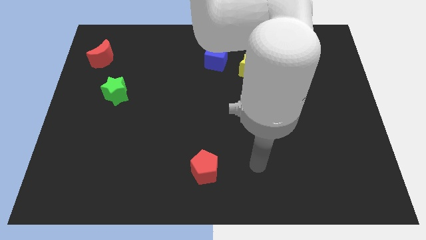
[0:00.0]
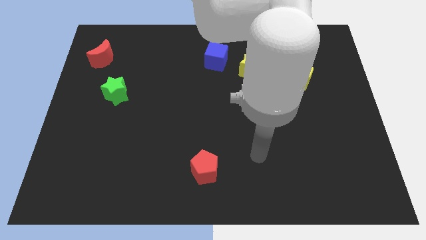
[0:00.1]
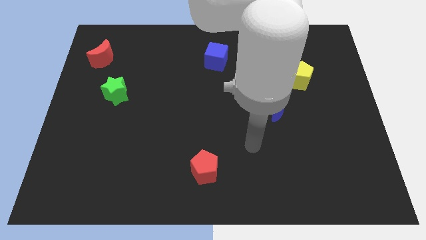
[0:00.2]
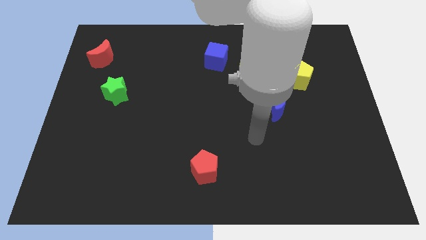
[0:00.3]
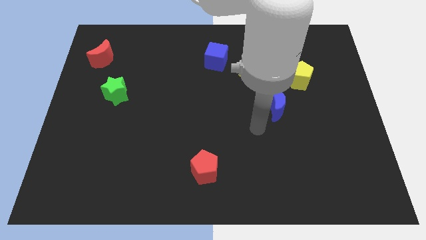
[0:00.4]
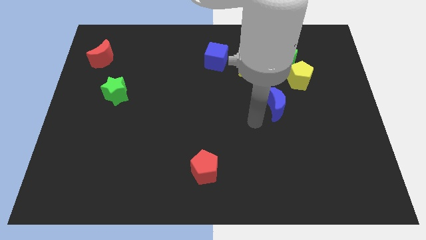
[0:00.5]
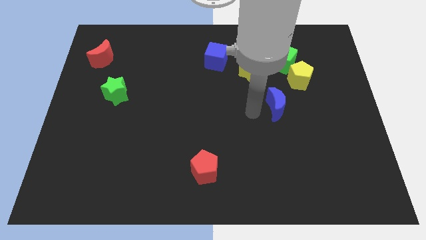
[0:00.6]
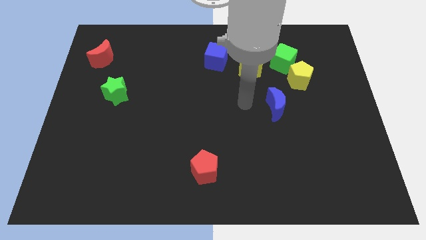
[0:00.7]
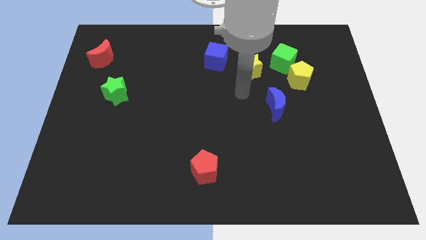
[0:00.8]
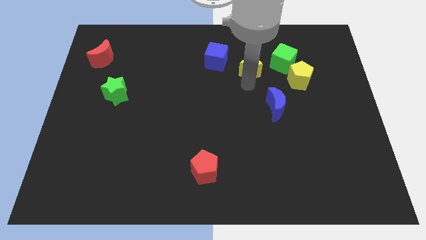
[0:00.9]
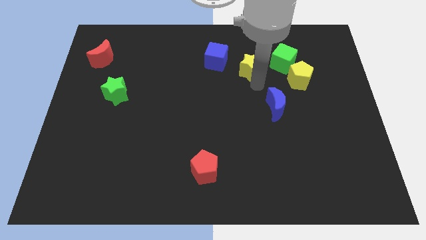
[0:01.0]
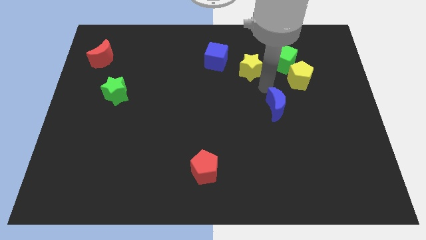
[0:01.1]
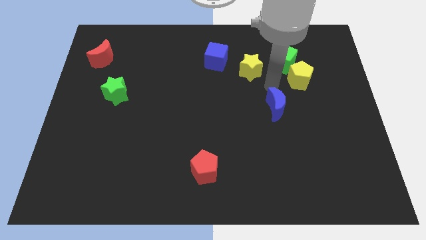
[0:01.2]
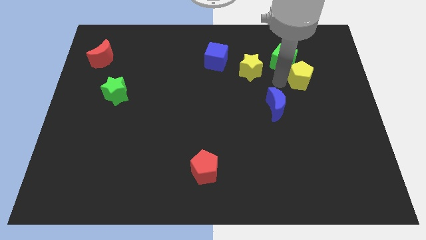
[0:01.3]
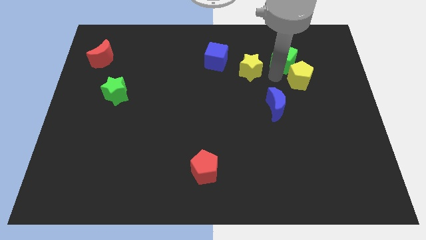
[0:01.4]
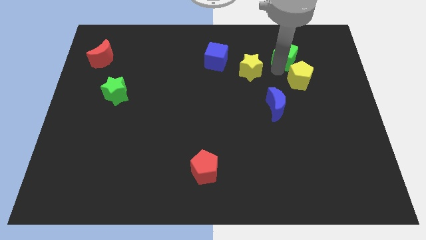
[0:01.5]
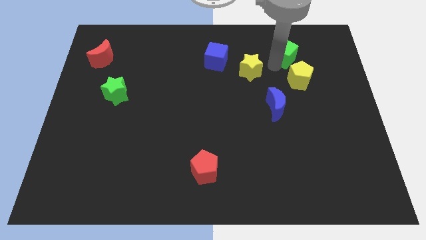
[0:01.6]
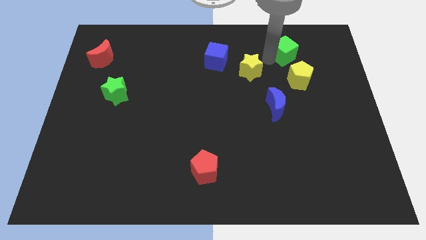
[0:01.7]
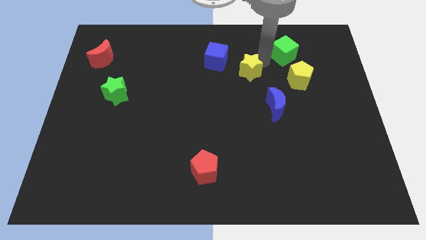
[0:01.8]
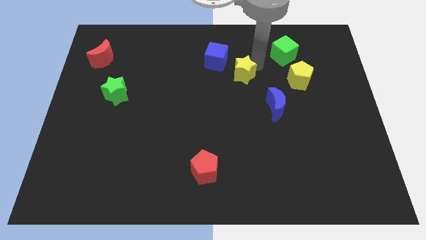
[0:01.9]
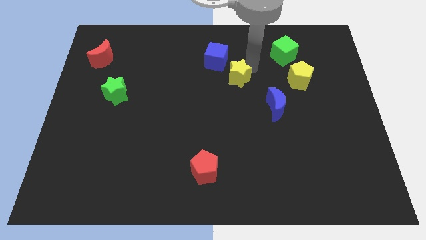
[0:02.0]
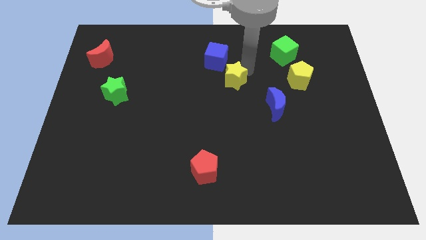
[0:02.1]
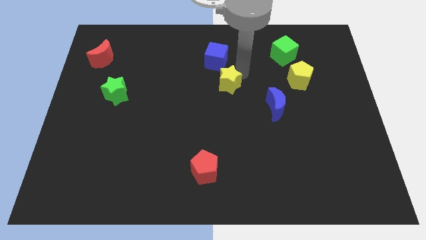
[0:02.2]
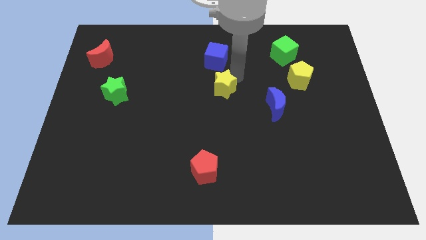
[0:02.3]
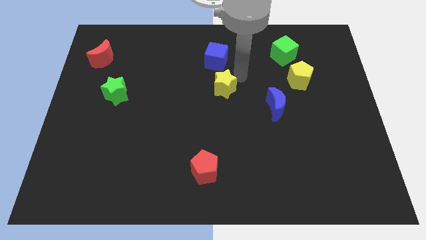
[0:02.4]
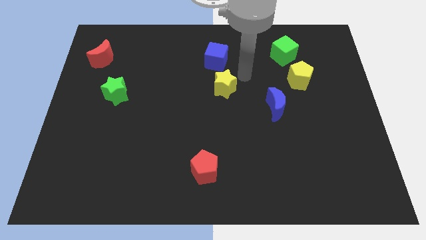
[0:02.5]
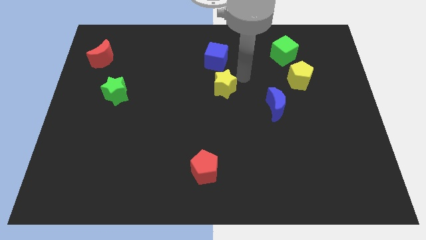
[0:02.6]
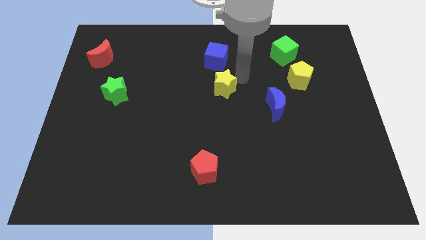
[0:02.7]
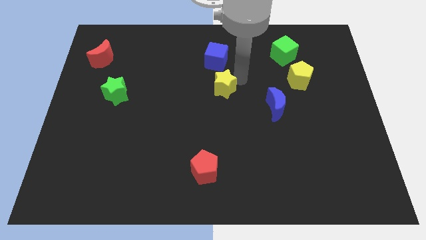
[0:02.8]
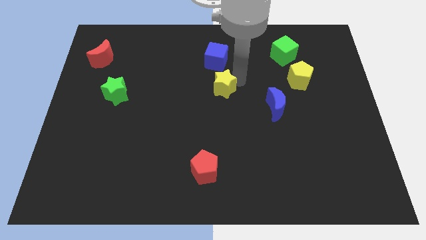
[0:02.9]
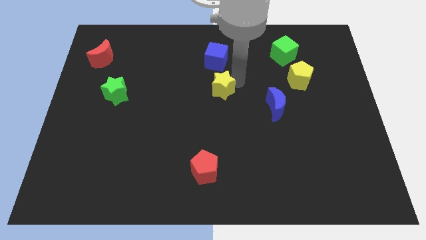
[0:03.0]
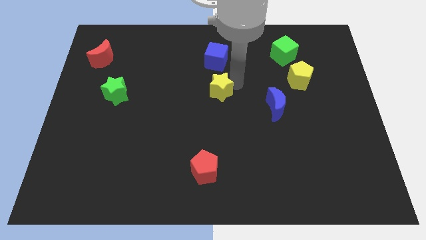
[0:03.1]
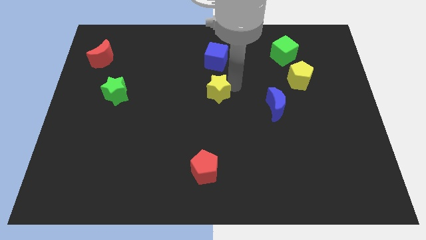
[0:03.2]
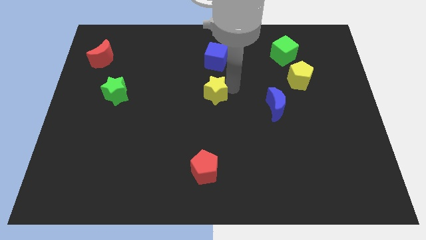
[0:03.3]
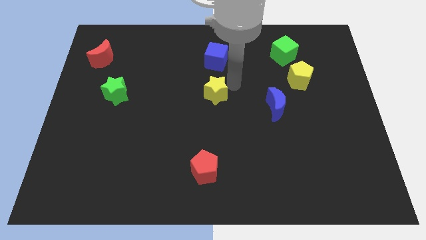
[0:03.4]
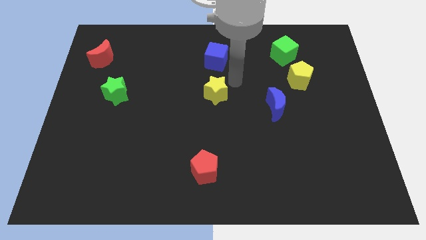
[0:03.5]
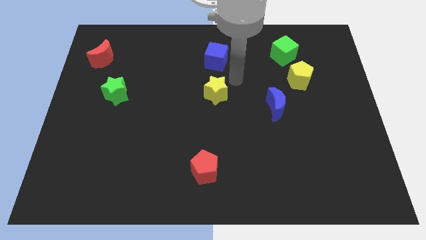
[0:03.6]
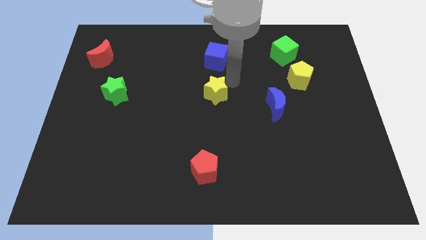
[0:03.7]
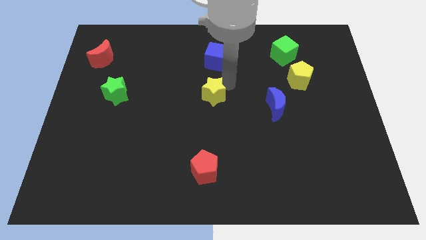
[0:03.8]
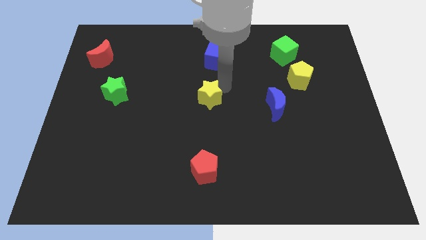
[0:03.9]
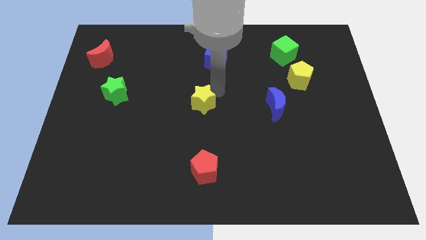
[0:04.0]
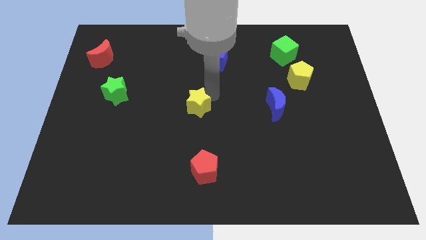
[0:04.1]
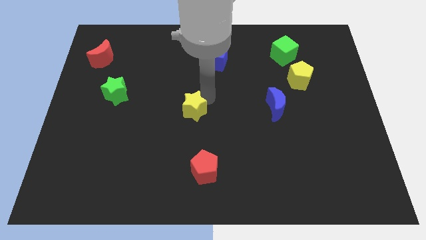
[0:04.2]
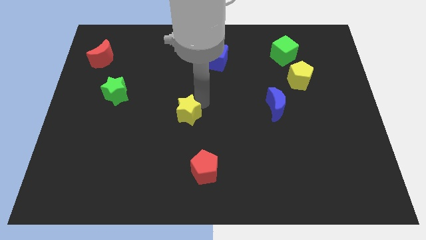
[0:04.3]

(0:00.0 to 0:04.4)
push the yellow star down and then to the left

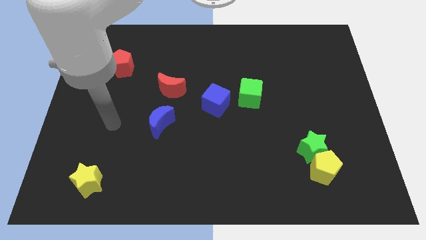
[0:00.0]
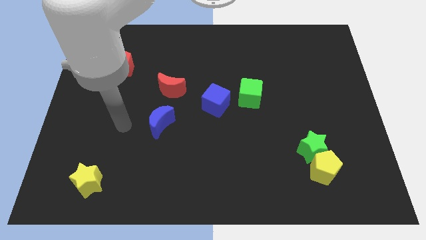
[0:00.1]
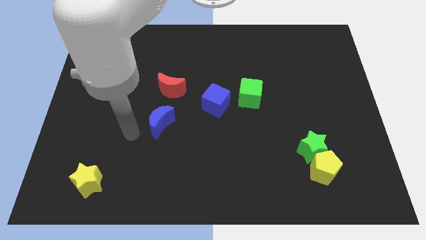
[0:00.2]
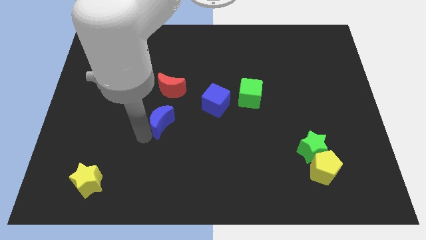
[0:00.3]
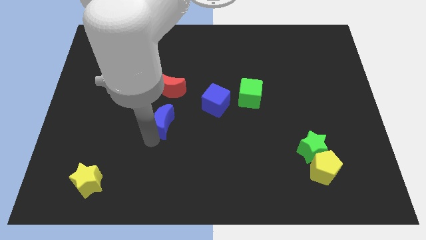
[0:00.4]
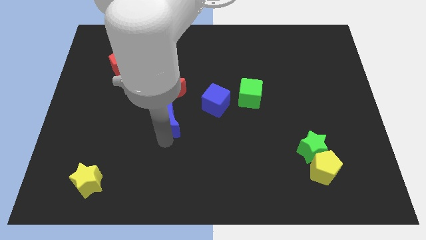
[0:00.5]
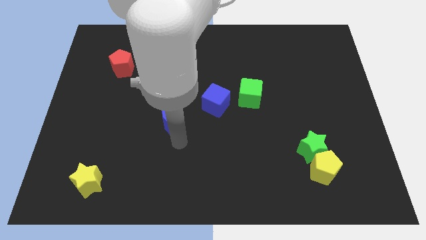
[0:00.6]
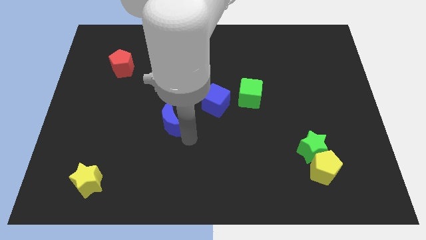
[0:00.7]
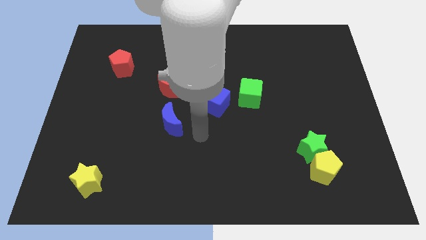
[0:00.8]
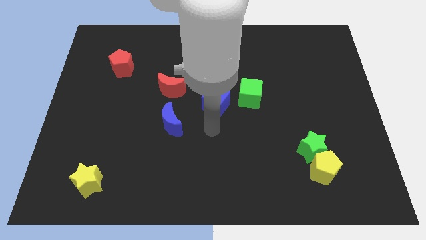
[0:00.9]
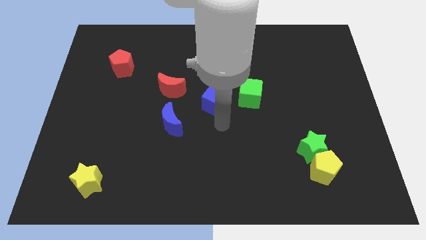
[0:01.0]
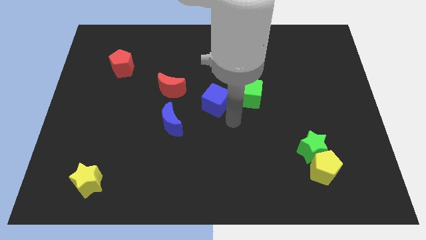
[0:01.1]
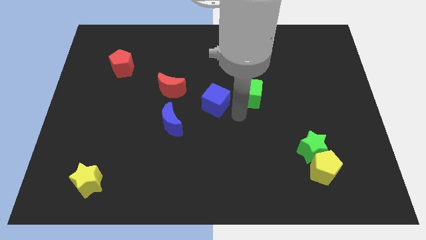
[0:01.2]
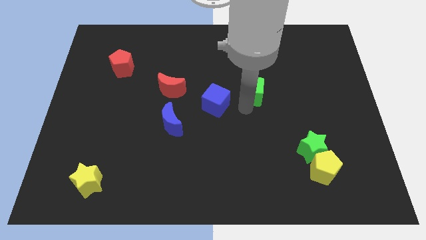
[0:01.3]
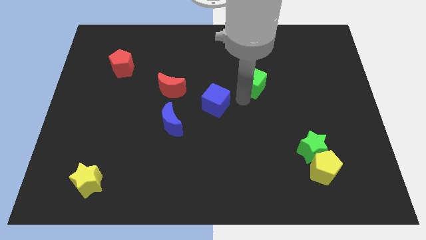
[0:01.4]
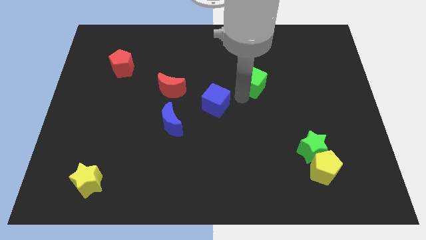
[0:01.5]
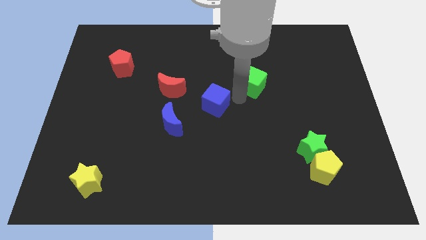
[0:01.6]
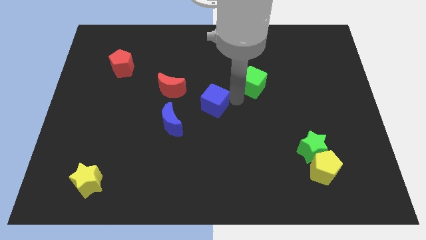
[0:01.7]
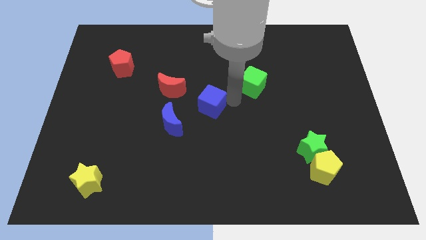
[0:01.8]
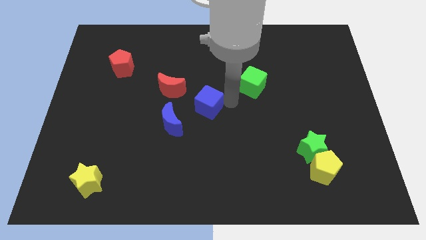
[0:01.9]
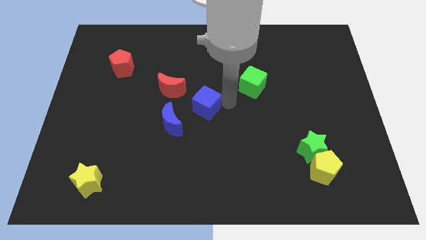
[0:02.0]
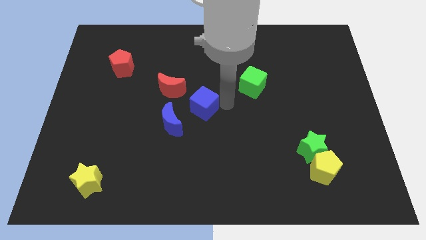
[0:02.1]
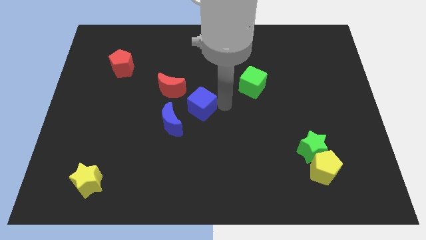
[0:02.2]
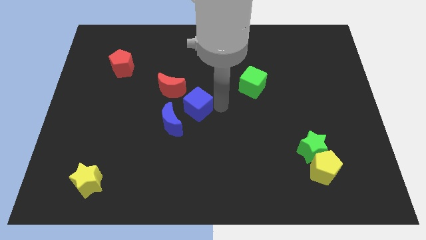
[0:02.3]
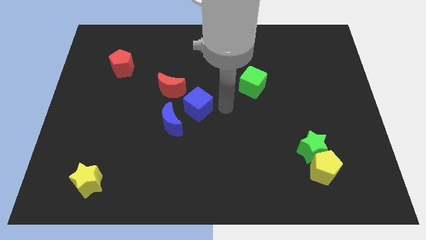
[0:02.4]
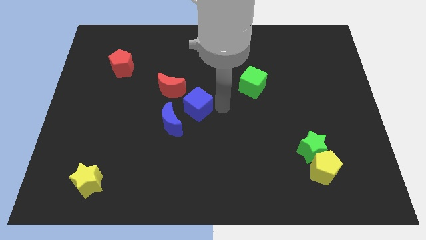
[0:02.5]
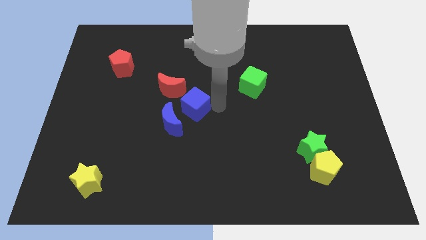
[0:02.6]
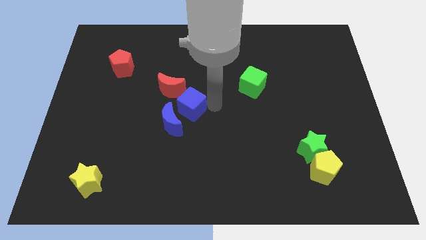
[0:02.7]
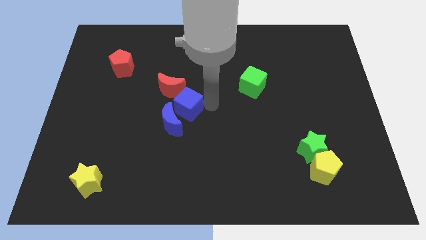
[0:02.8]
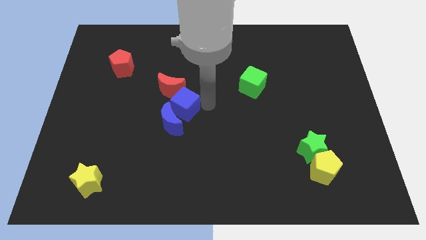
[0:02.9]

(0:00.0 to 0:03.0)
slightly move the blue cube left

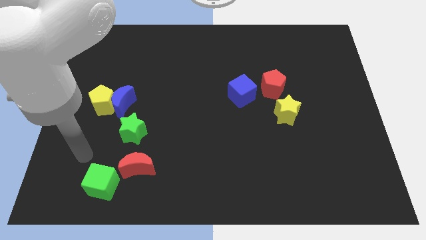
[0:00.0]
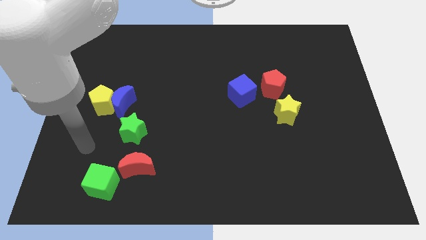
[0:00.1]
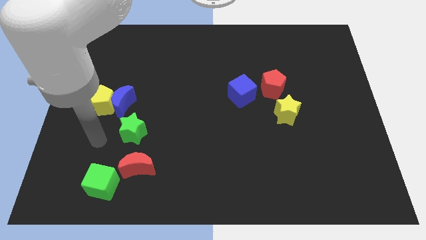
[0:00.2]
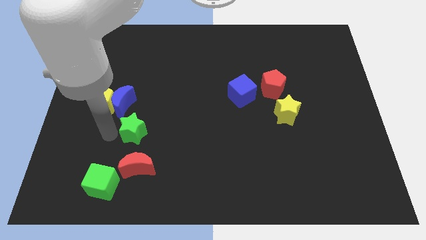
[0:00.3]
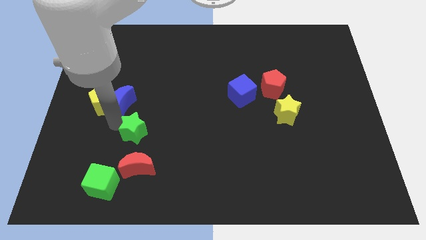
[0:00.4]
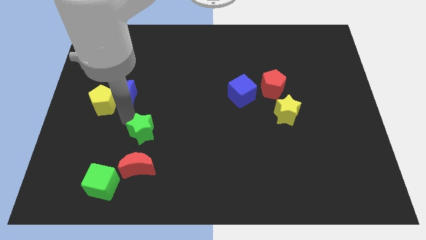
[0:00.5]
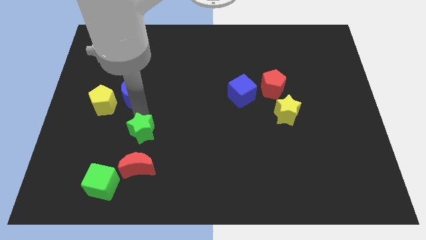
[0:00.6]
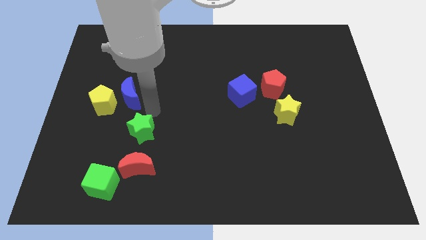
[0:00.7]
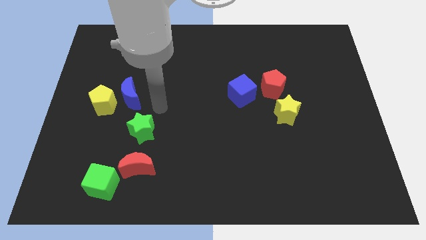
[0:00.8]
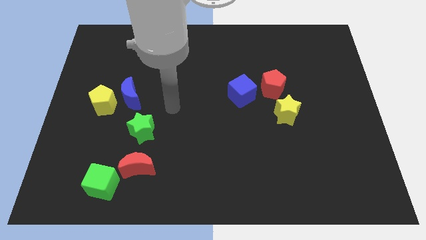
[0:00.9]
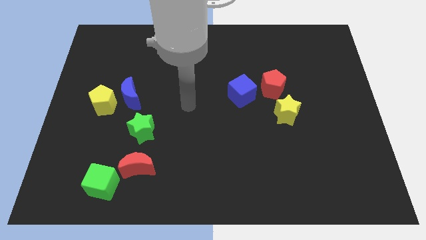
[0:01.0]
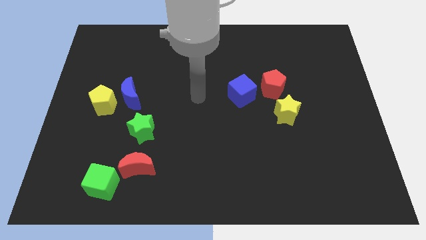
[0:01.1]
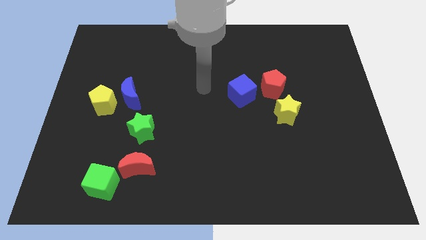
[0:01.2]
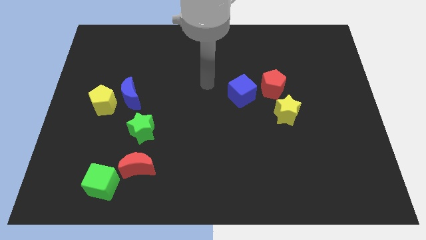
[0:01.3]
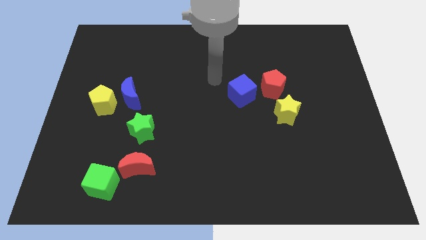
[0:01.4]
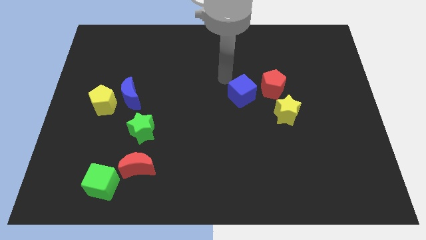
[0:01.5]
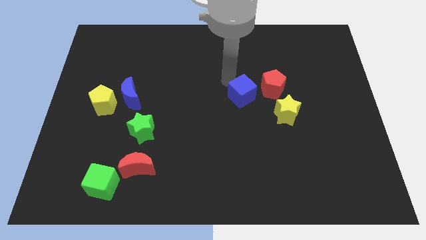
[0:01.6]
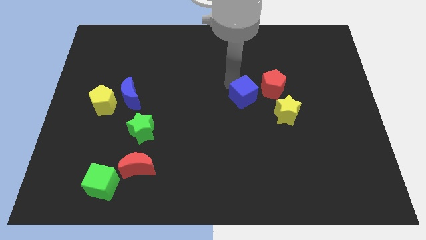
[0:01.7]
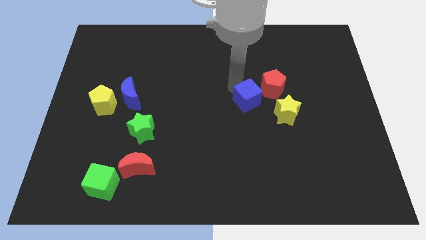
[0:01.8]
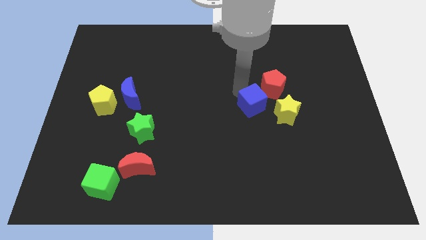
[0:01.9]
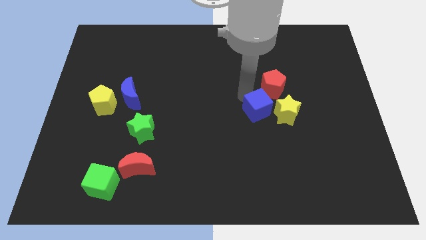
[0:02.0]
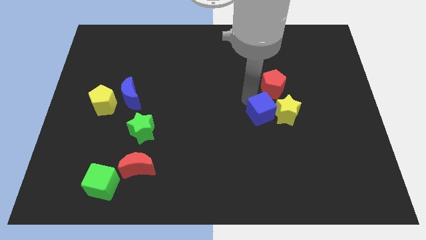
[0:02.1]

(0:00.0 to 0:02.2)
slide the blue cube slightly down and right diagonally
